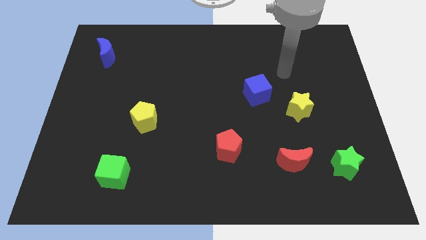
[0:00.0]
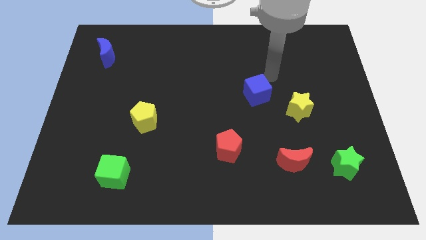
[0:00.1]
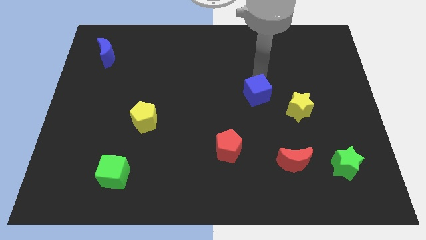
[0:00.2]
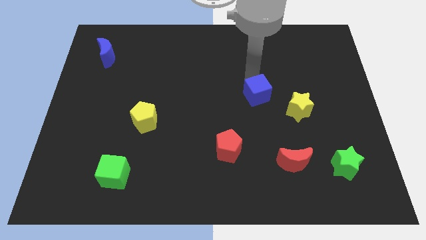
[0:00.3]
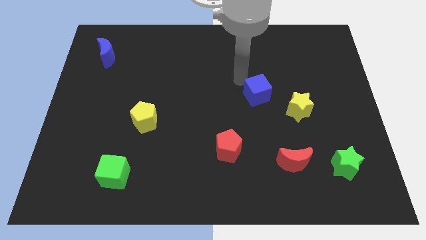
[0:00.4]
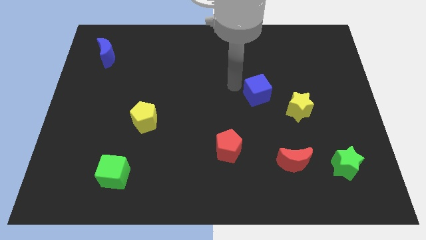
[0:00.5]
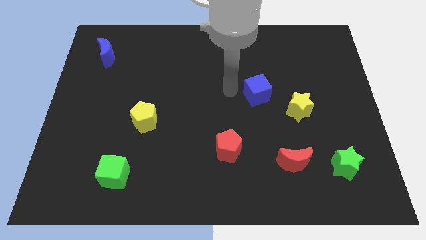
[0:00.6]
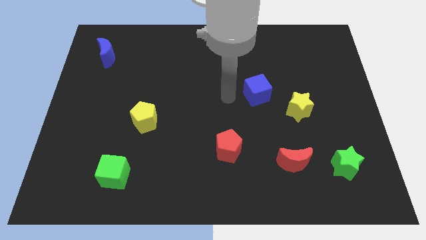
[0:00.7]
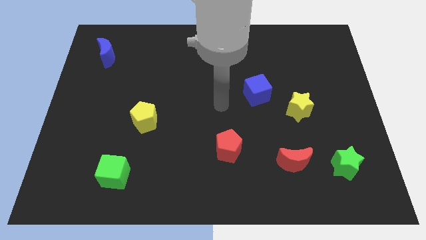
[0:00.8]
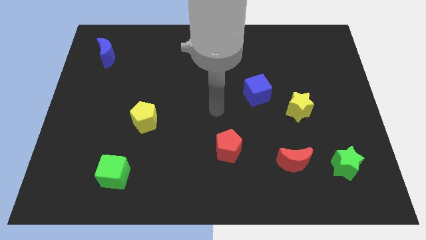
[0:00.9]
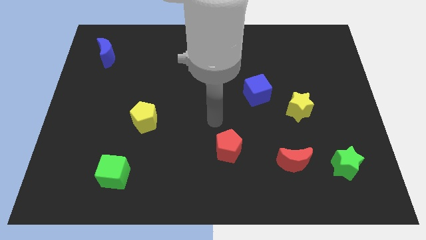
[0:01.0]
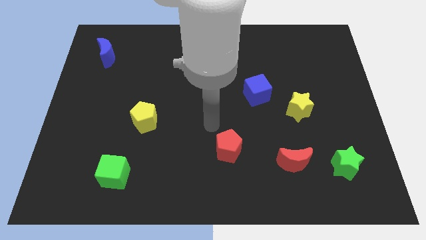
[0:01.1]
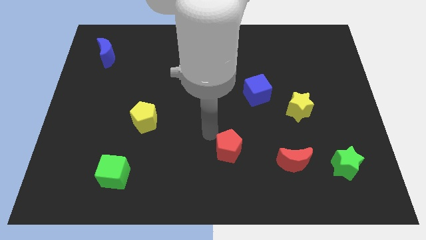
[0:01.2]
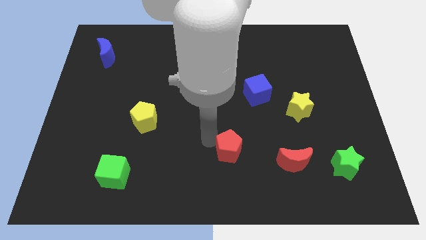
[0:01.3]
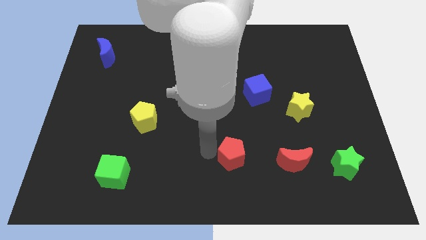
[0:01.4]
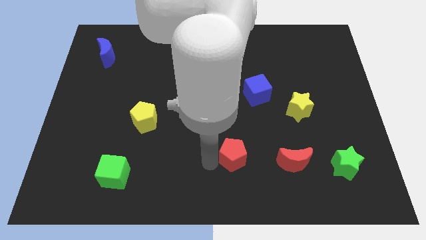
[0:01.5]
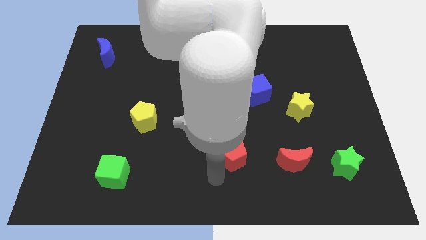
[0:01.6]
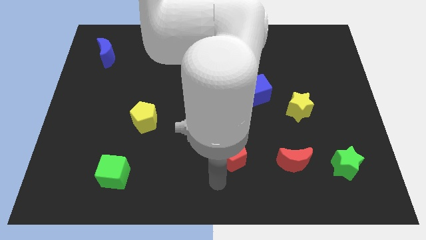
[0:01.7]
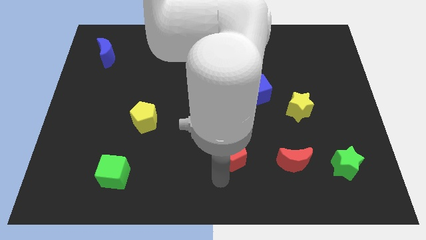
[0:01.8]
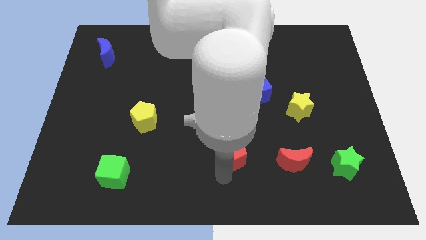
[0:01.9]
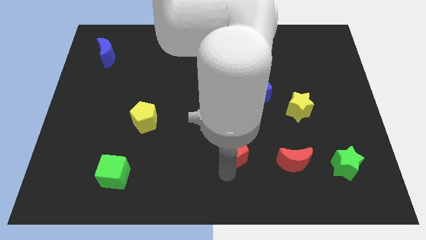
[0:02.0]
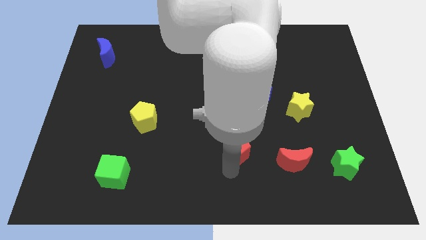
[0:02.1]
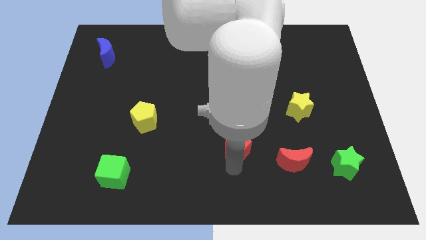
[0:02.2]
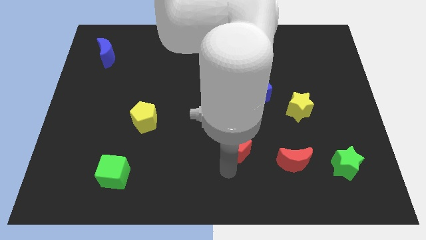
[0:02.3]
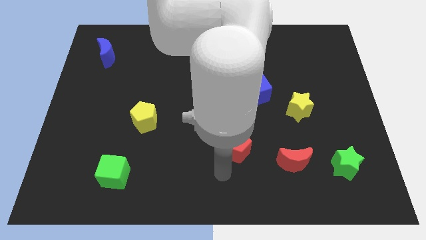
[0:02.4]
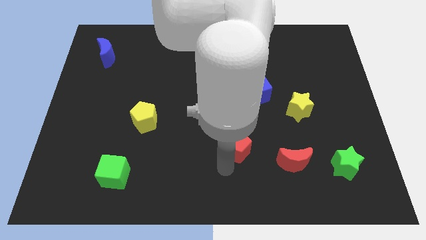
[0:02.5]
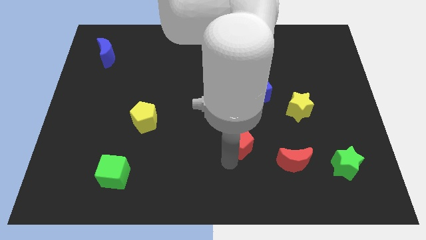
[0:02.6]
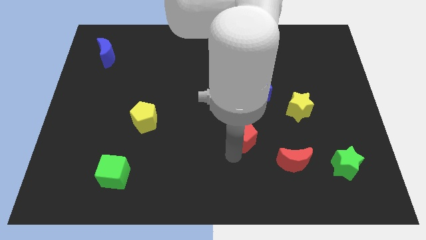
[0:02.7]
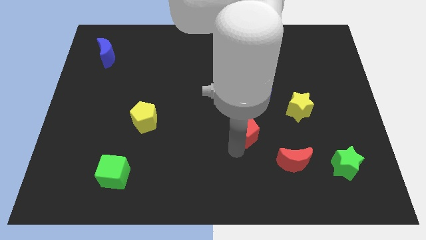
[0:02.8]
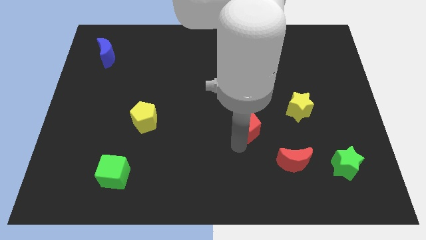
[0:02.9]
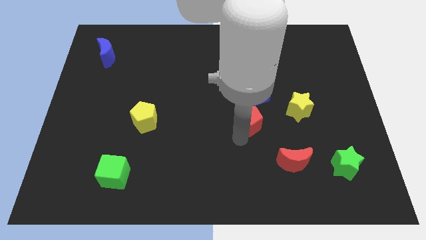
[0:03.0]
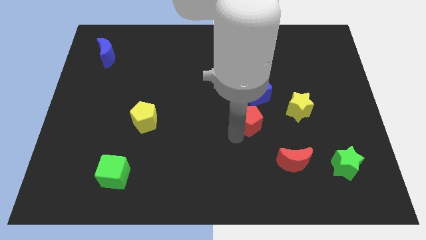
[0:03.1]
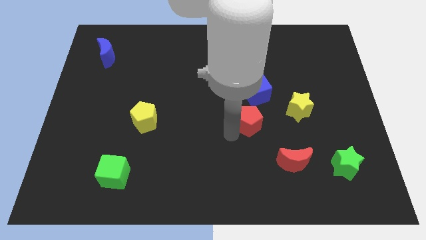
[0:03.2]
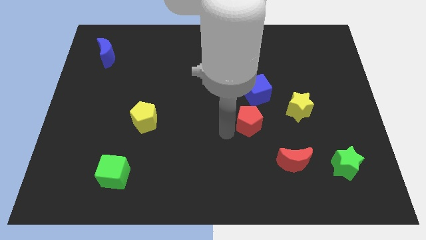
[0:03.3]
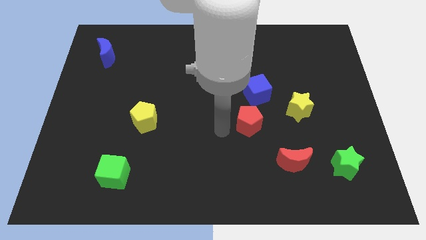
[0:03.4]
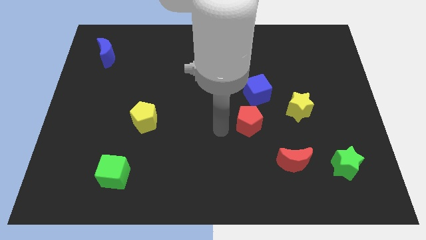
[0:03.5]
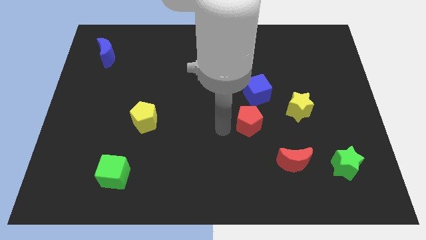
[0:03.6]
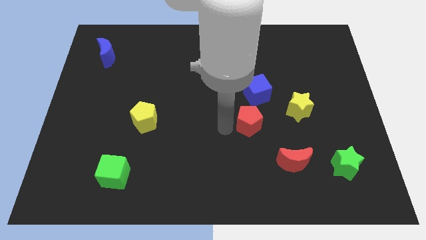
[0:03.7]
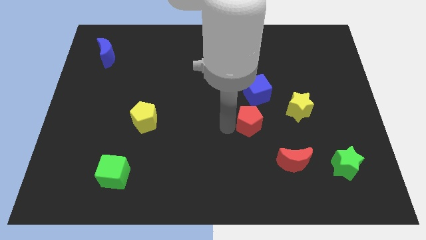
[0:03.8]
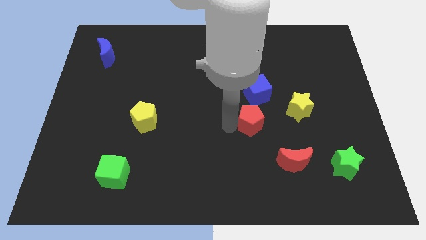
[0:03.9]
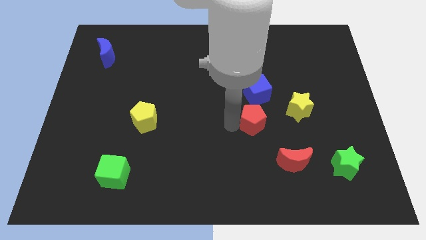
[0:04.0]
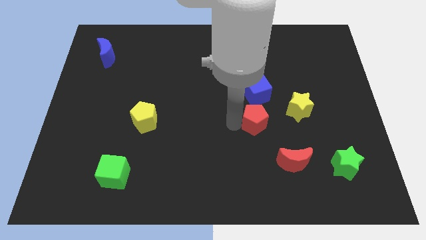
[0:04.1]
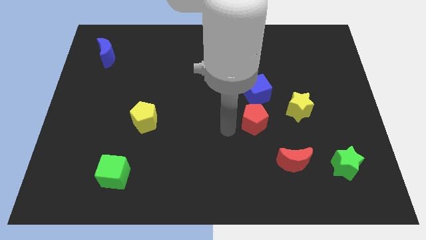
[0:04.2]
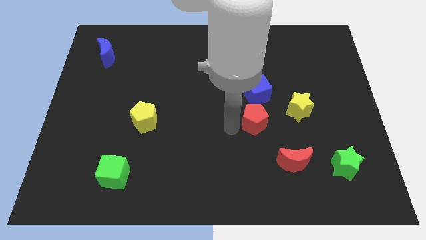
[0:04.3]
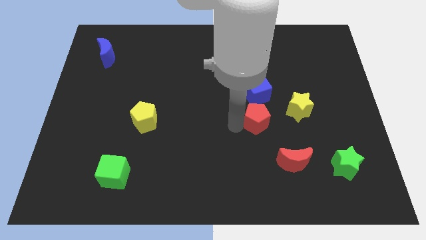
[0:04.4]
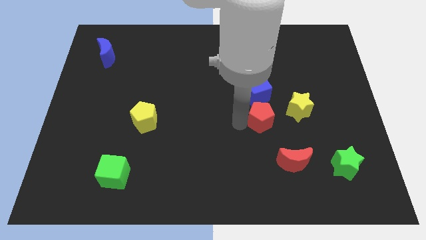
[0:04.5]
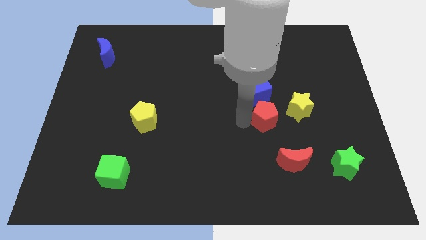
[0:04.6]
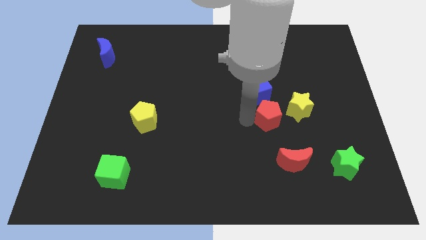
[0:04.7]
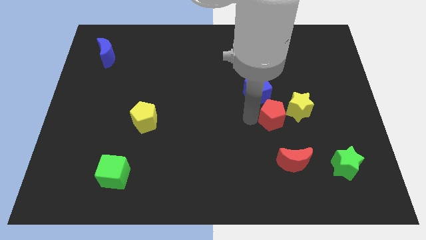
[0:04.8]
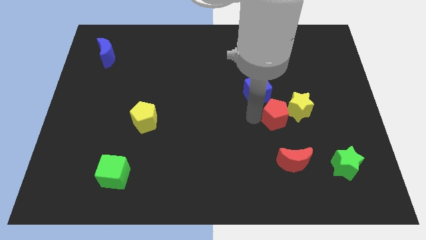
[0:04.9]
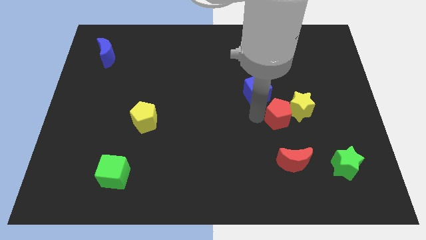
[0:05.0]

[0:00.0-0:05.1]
push the red pentagon to the yellow star

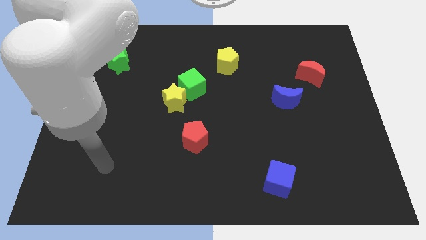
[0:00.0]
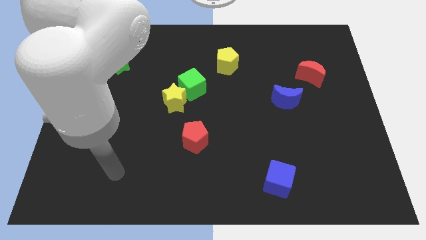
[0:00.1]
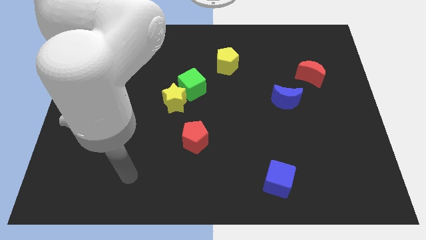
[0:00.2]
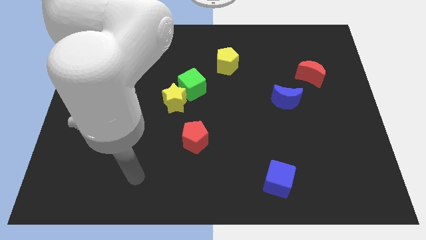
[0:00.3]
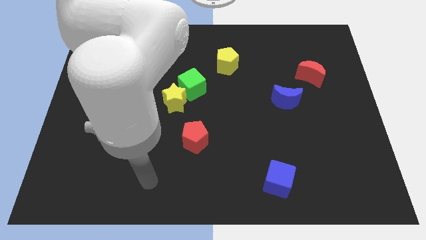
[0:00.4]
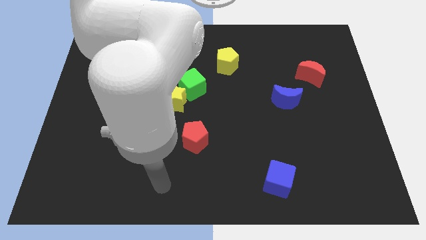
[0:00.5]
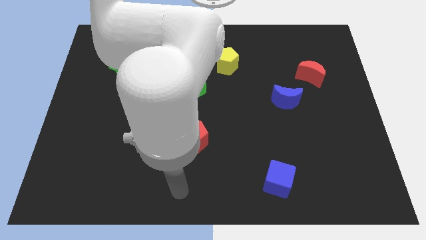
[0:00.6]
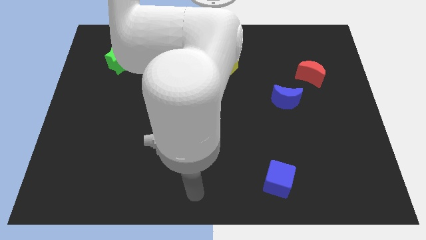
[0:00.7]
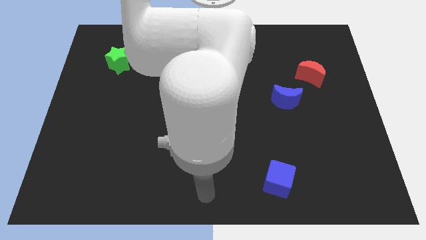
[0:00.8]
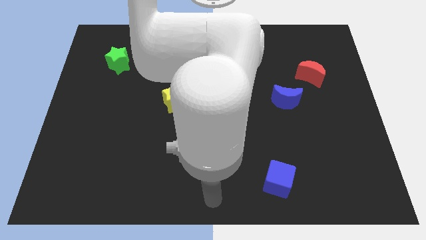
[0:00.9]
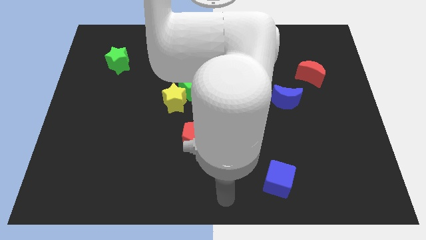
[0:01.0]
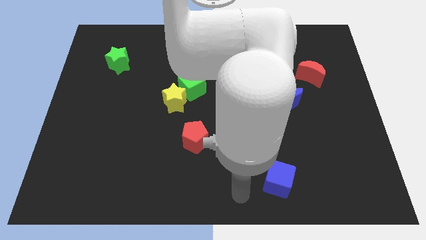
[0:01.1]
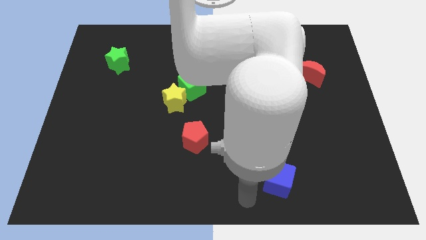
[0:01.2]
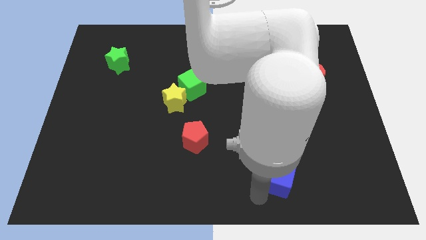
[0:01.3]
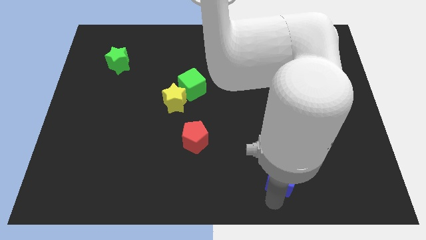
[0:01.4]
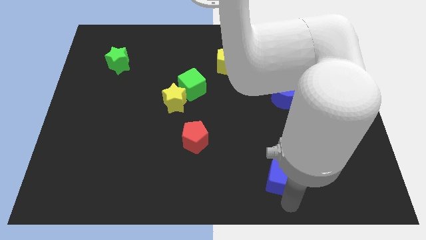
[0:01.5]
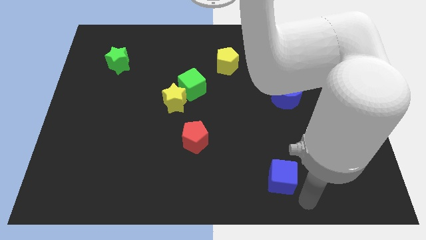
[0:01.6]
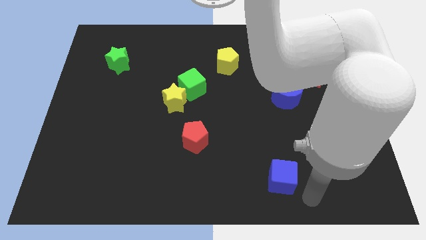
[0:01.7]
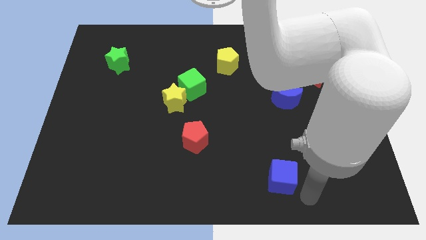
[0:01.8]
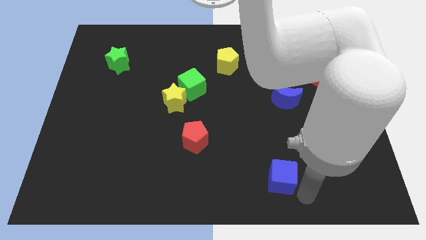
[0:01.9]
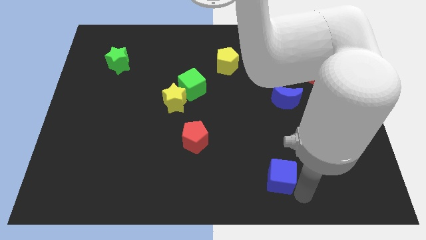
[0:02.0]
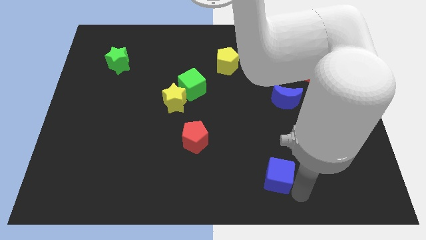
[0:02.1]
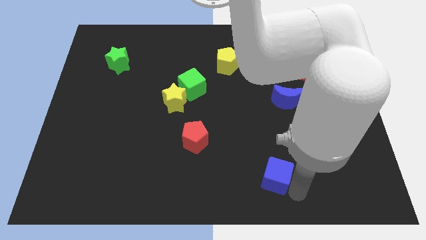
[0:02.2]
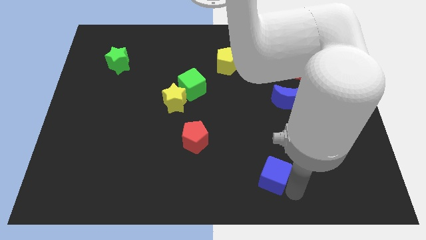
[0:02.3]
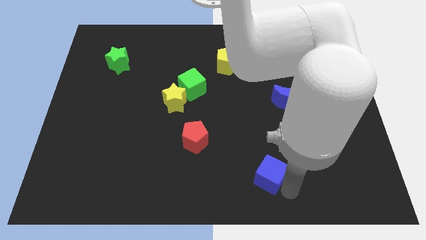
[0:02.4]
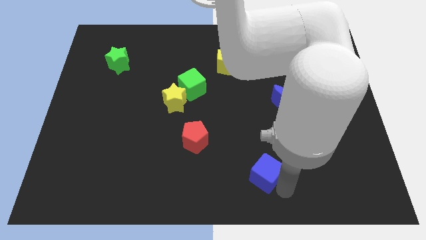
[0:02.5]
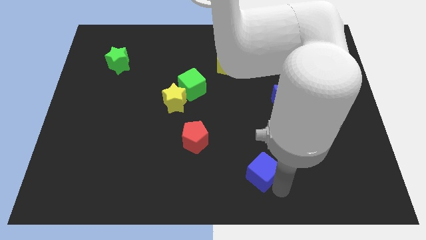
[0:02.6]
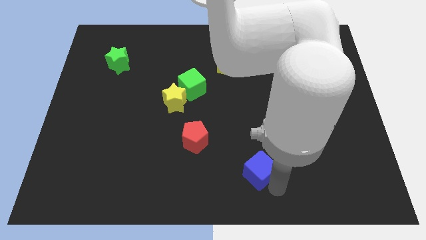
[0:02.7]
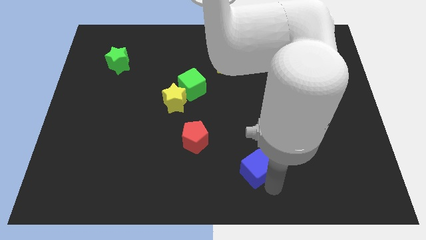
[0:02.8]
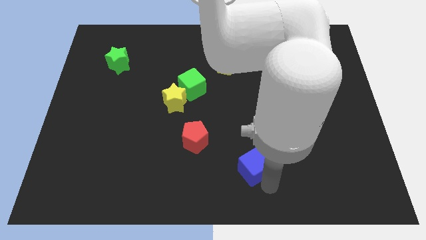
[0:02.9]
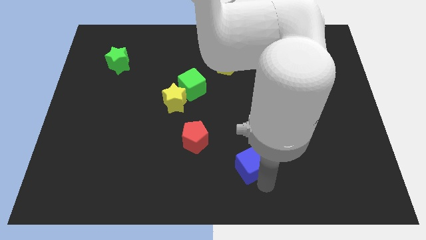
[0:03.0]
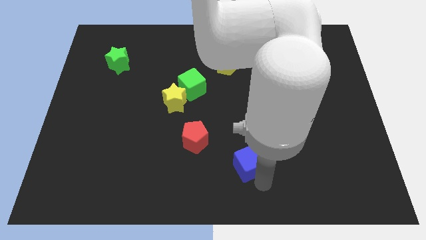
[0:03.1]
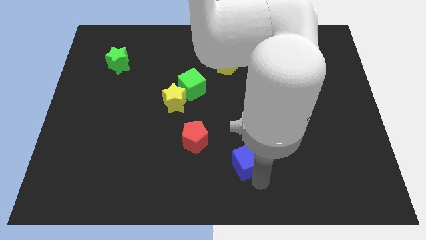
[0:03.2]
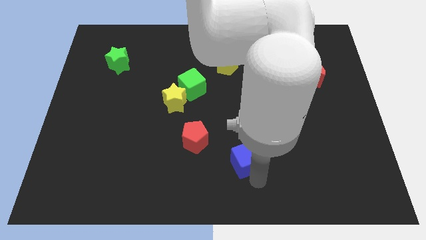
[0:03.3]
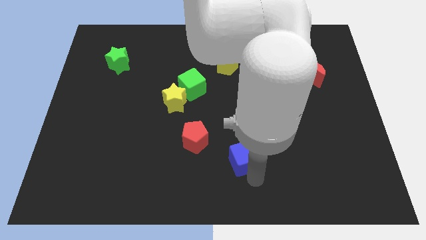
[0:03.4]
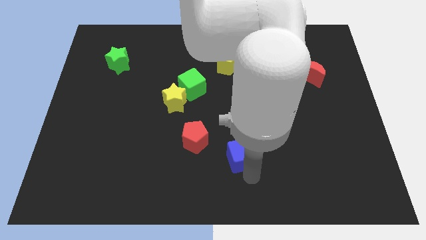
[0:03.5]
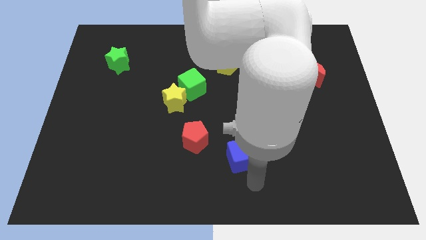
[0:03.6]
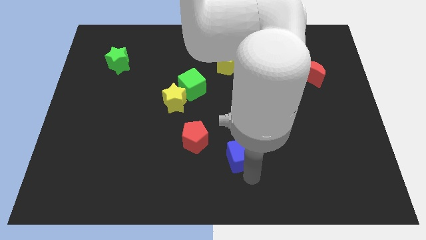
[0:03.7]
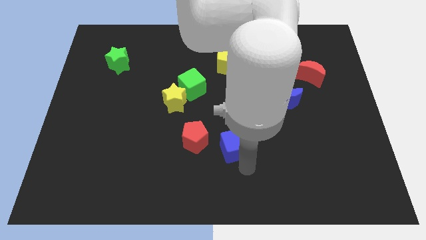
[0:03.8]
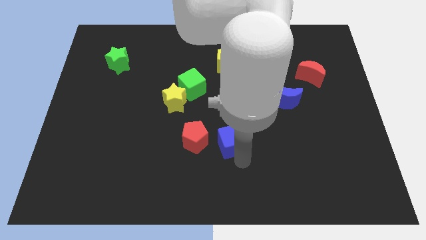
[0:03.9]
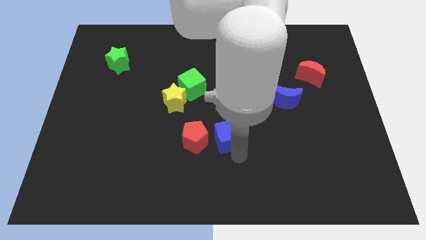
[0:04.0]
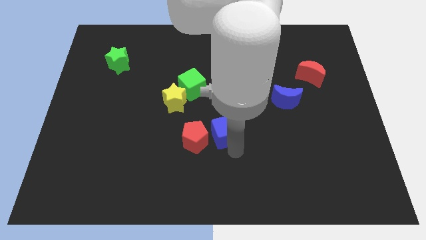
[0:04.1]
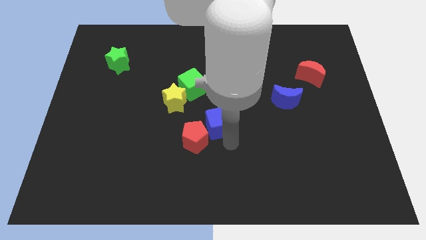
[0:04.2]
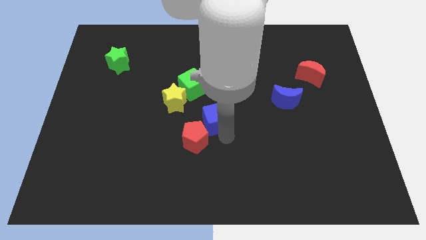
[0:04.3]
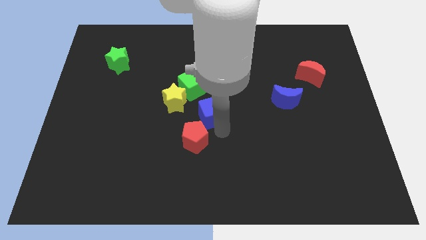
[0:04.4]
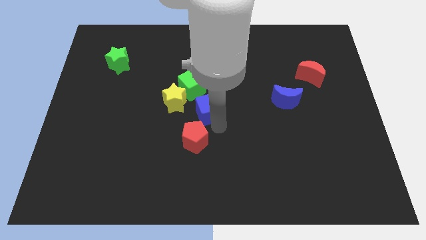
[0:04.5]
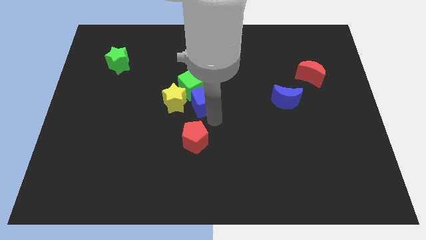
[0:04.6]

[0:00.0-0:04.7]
push the blue cube towards the green cube
